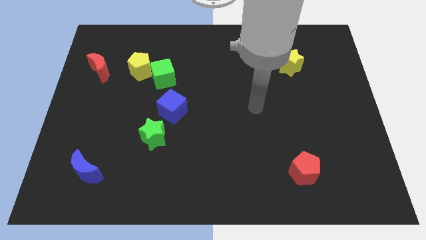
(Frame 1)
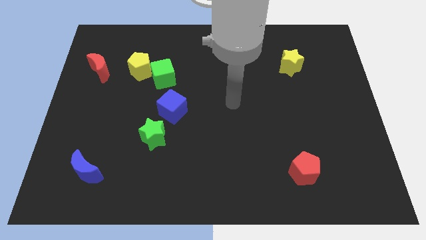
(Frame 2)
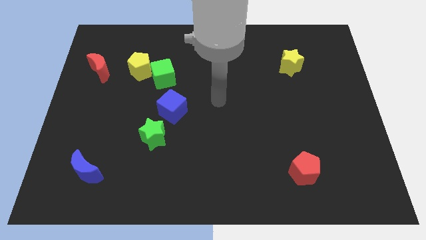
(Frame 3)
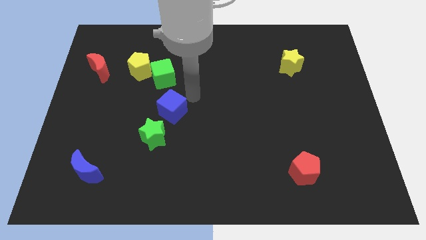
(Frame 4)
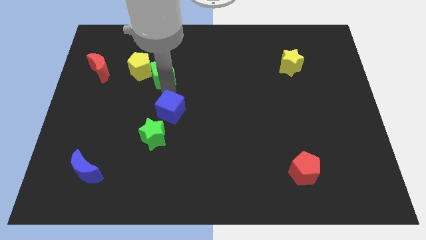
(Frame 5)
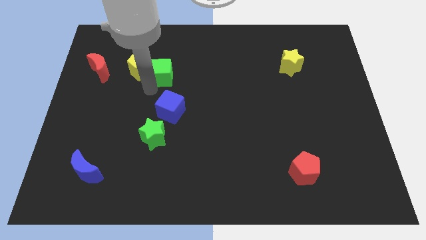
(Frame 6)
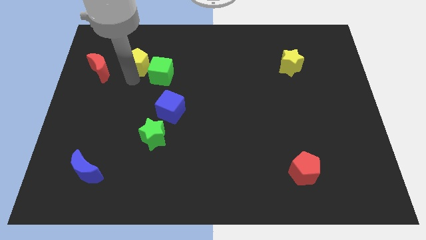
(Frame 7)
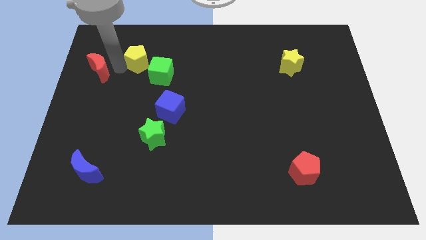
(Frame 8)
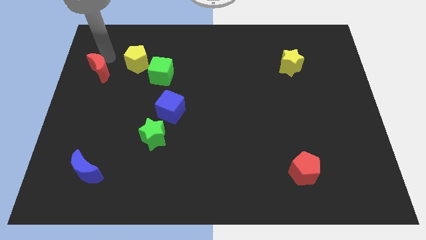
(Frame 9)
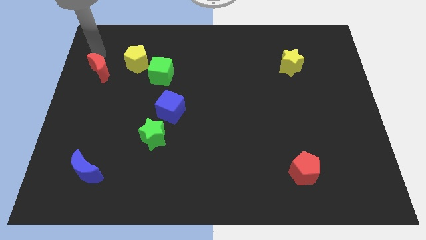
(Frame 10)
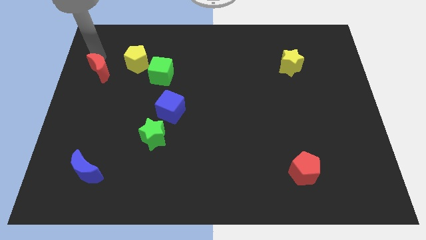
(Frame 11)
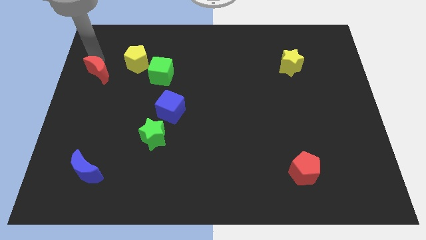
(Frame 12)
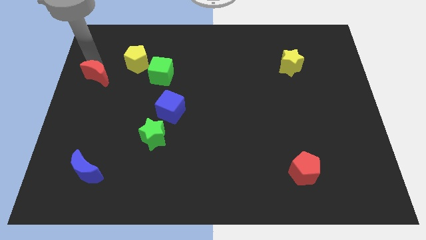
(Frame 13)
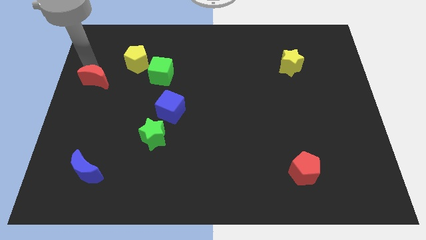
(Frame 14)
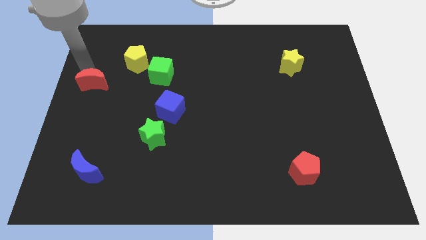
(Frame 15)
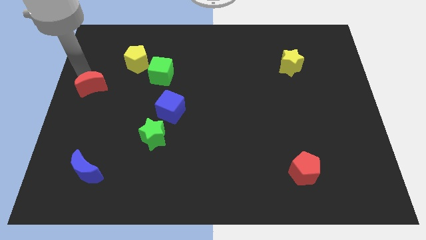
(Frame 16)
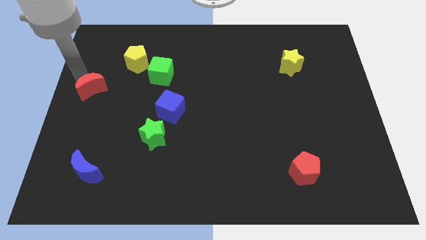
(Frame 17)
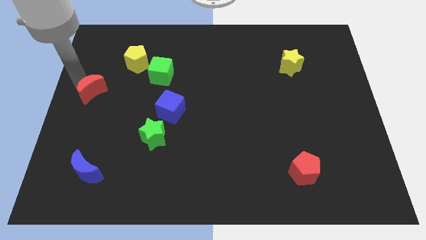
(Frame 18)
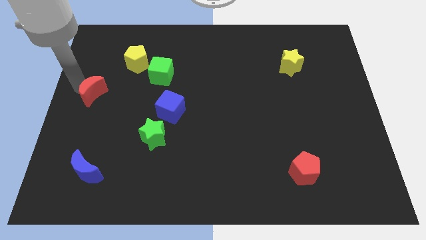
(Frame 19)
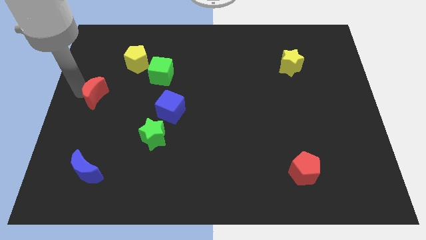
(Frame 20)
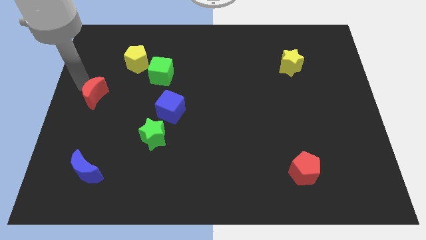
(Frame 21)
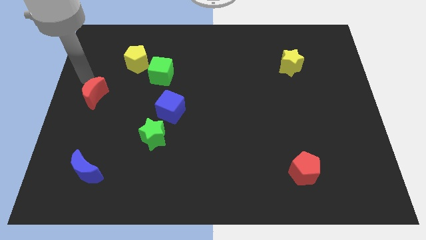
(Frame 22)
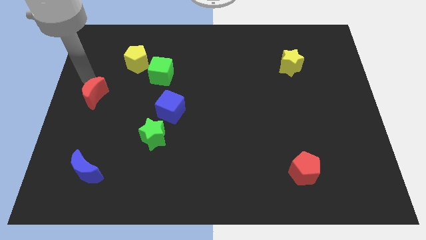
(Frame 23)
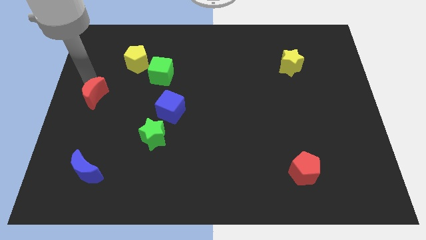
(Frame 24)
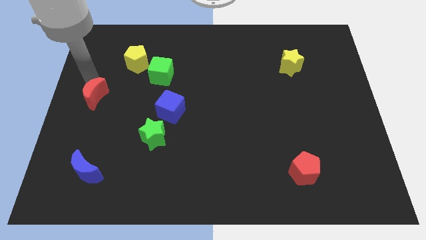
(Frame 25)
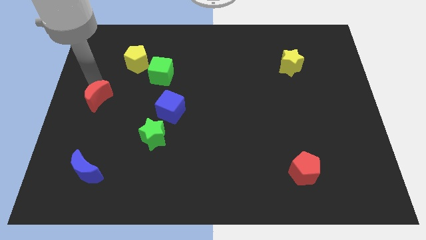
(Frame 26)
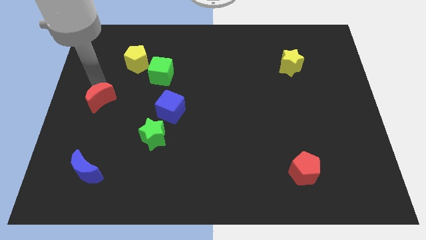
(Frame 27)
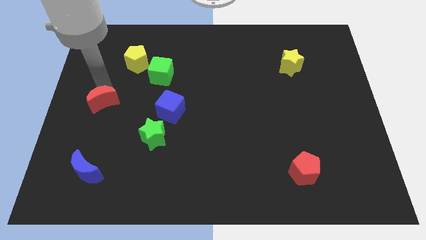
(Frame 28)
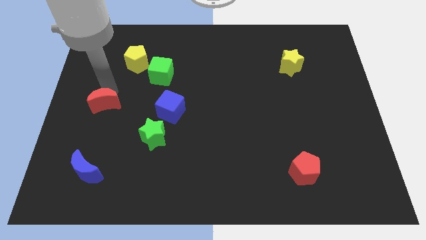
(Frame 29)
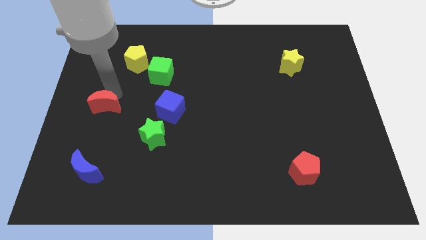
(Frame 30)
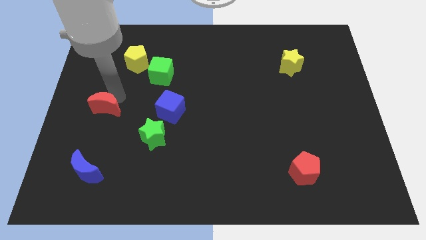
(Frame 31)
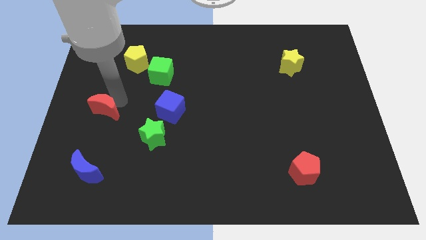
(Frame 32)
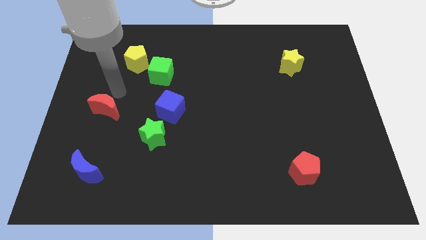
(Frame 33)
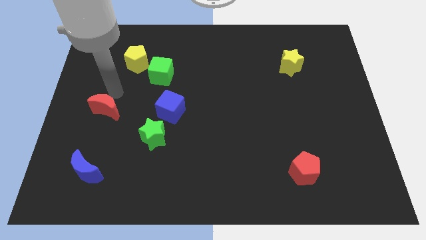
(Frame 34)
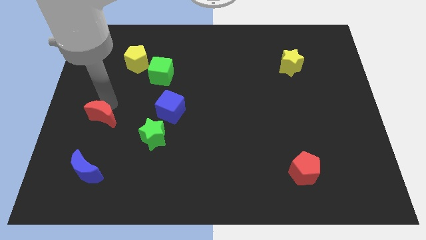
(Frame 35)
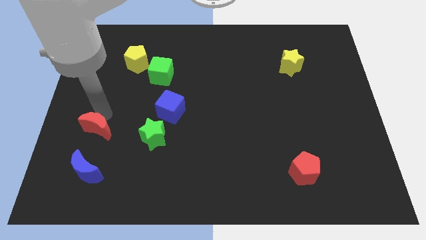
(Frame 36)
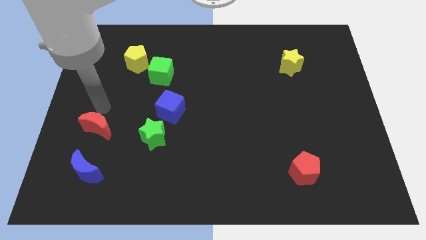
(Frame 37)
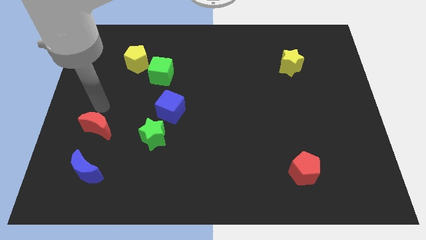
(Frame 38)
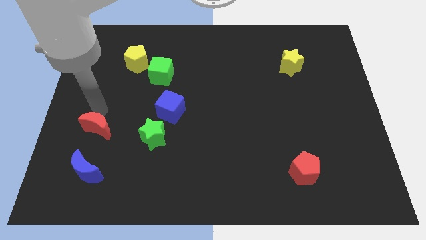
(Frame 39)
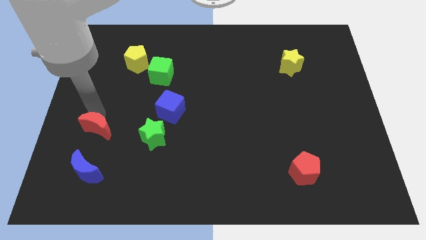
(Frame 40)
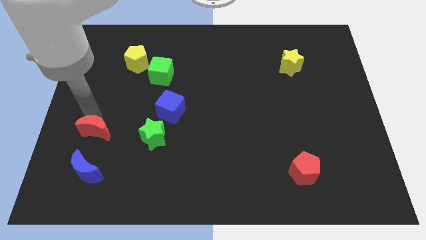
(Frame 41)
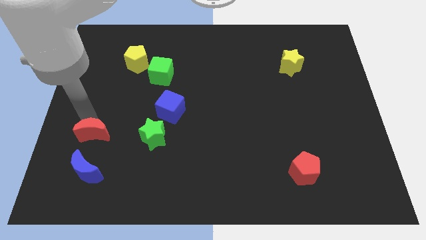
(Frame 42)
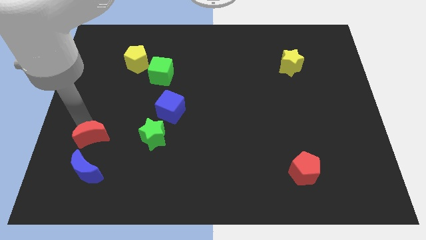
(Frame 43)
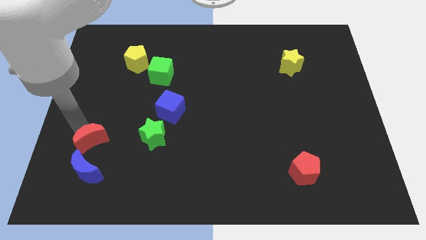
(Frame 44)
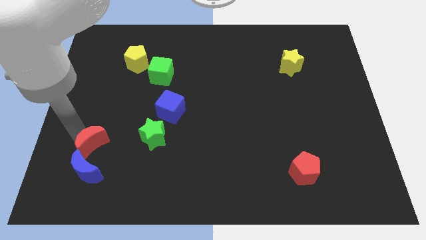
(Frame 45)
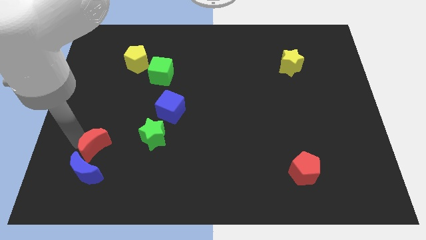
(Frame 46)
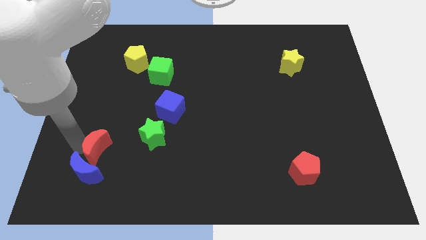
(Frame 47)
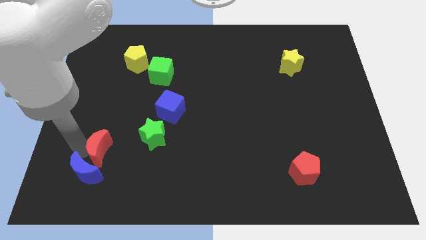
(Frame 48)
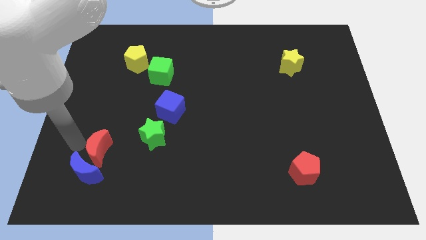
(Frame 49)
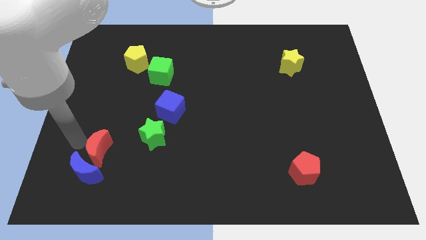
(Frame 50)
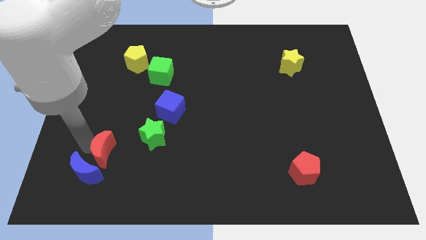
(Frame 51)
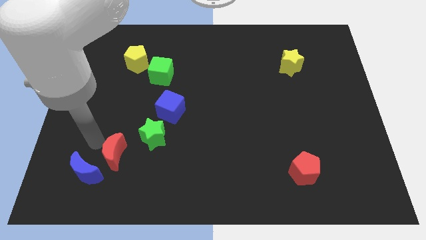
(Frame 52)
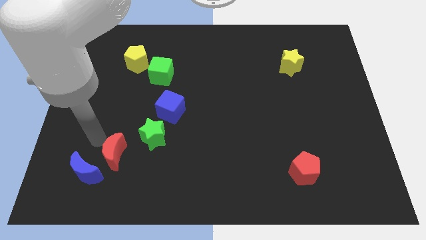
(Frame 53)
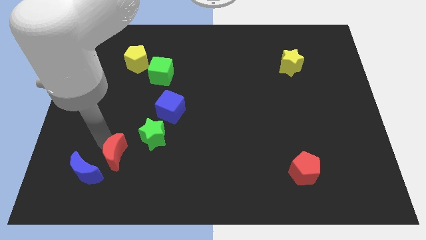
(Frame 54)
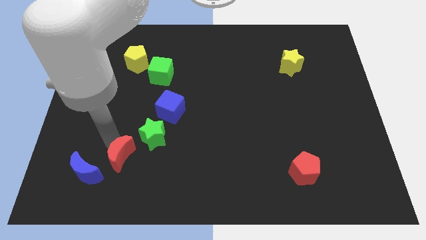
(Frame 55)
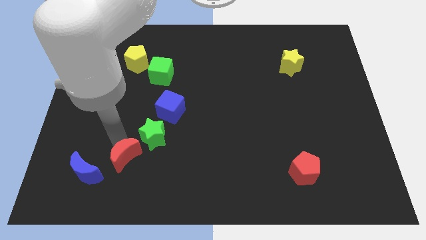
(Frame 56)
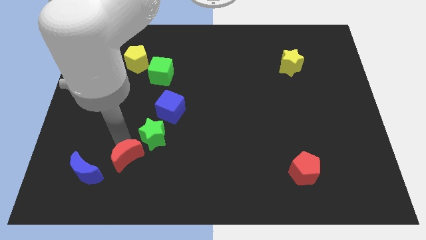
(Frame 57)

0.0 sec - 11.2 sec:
put the red moon to the bottom side of the green star

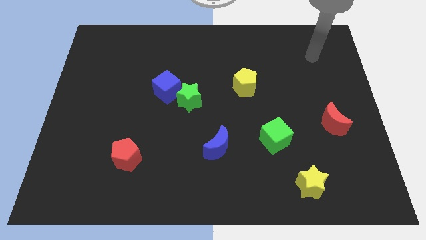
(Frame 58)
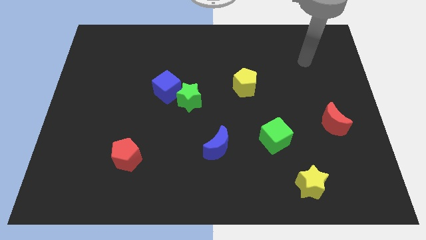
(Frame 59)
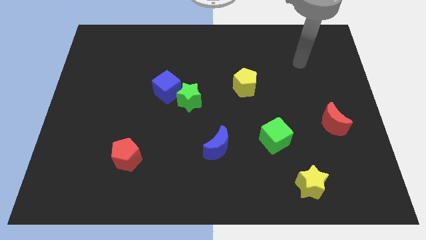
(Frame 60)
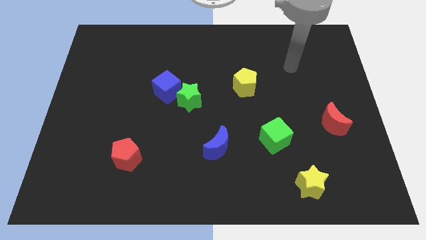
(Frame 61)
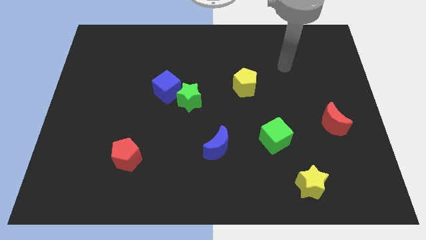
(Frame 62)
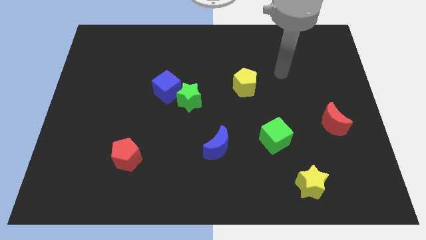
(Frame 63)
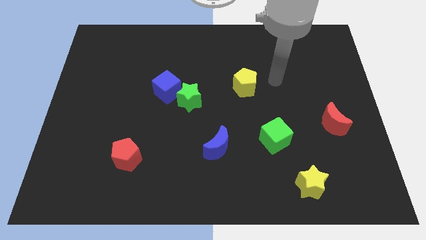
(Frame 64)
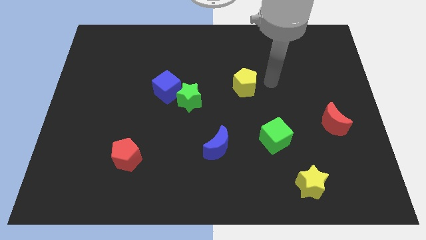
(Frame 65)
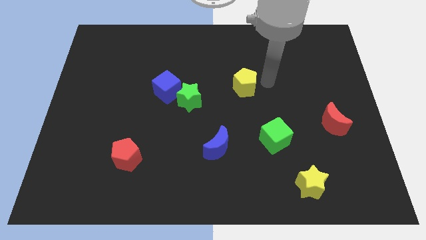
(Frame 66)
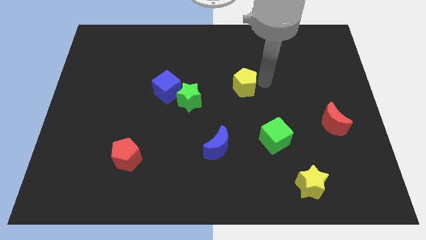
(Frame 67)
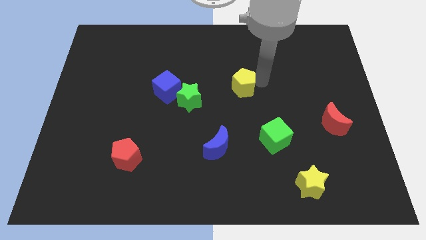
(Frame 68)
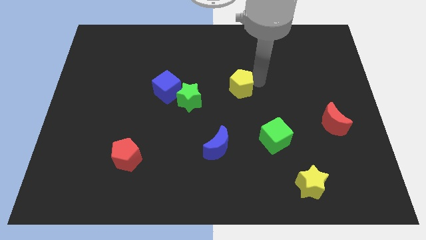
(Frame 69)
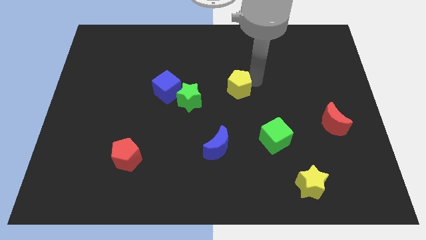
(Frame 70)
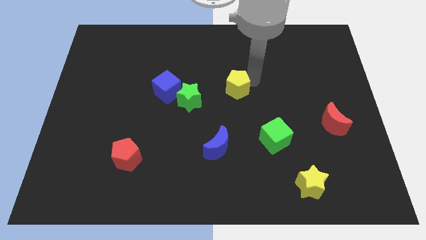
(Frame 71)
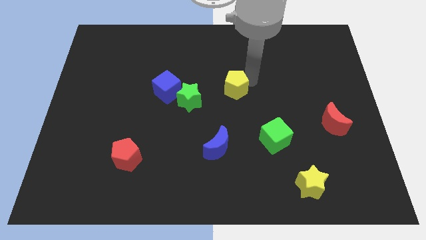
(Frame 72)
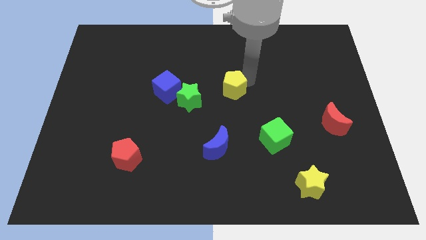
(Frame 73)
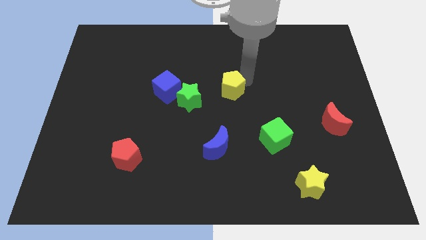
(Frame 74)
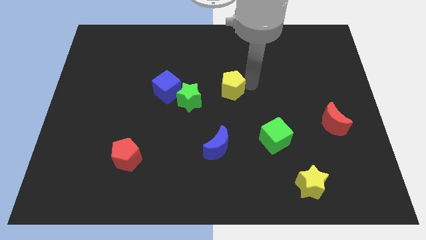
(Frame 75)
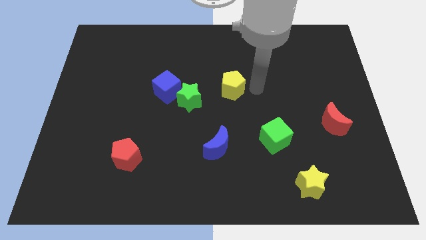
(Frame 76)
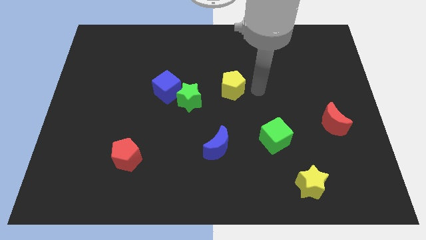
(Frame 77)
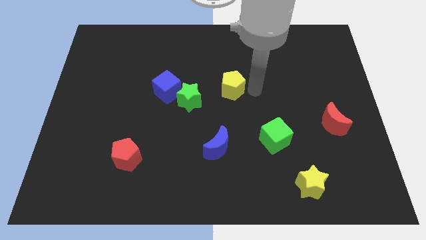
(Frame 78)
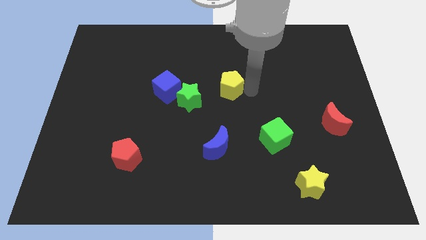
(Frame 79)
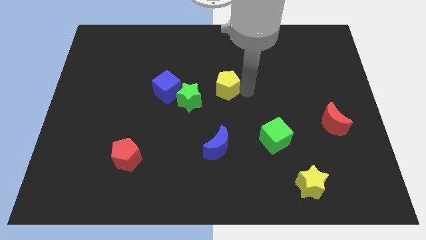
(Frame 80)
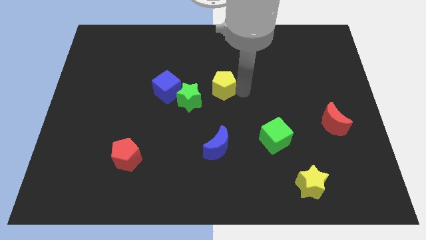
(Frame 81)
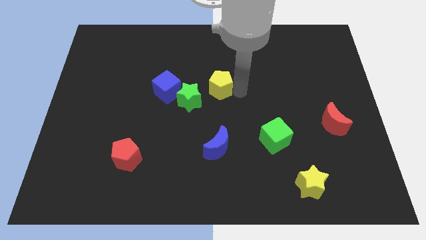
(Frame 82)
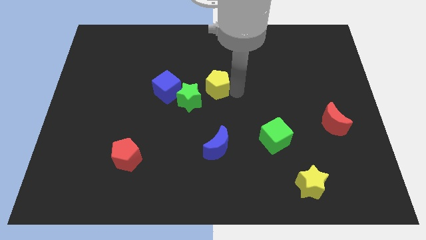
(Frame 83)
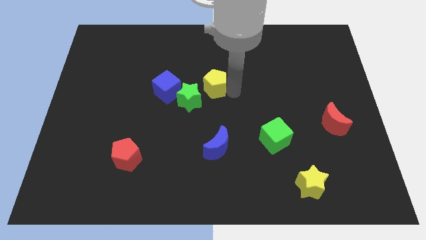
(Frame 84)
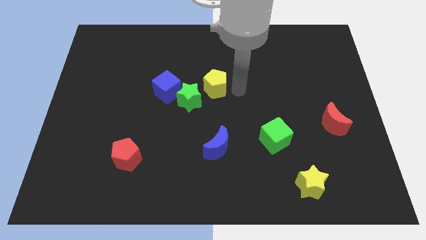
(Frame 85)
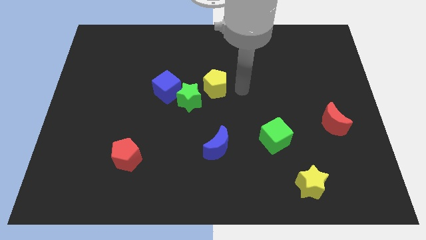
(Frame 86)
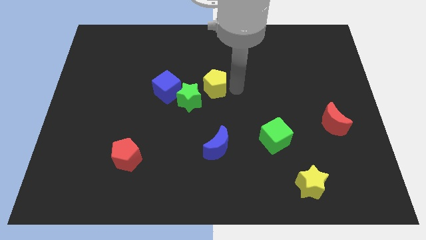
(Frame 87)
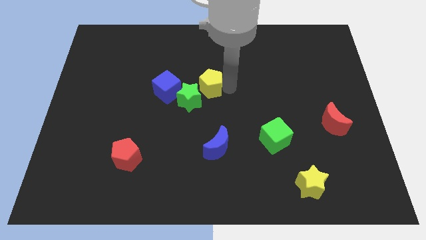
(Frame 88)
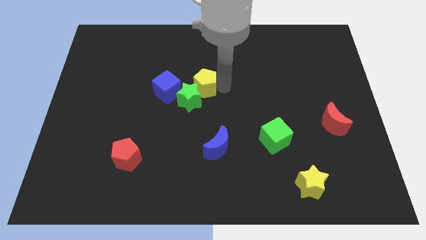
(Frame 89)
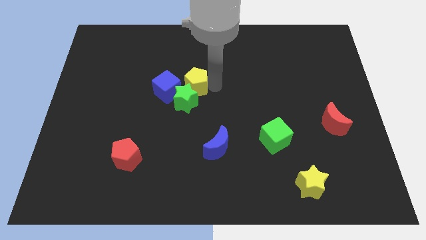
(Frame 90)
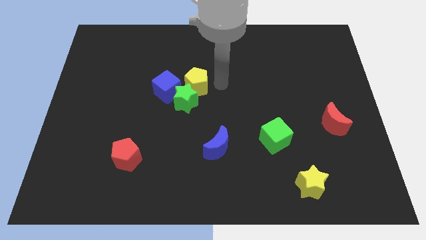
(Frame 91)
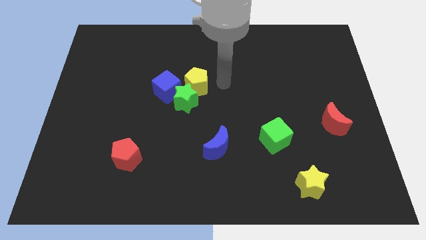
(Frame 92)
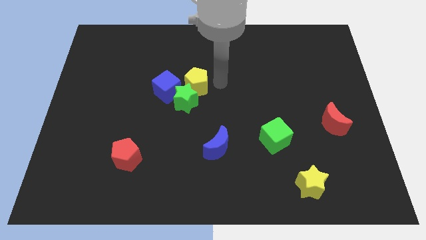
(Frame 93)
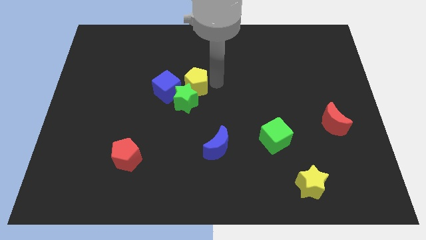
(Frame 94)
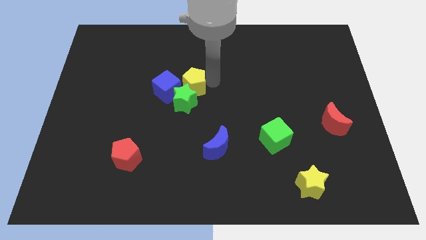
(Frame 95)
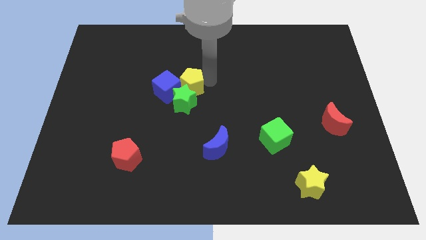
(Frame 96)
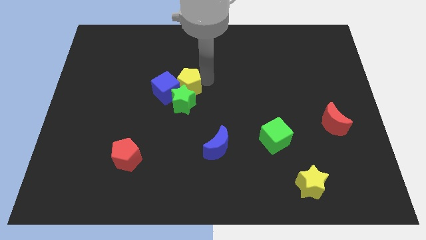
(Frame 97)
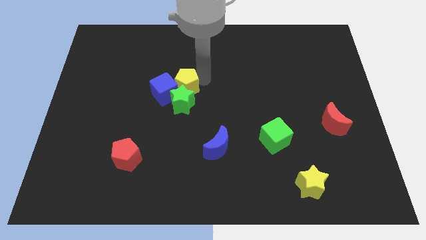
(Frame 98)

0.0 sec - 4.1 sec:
slide the yellow pentagon to the top left of the green star
